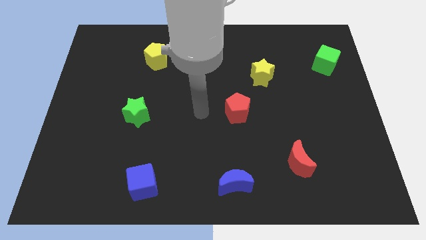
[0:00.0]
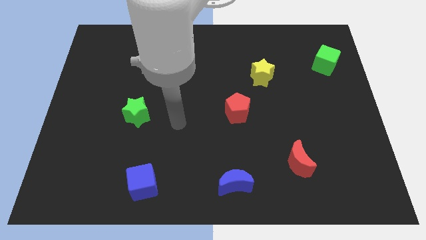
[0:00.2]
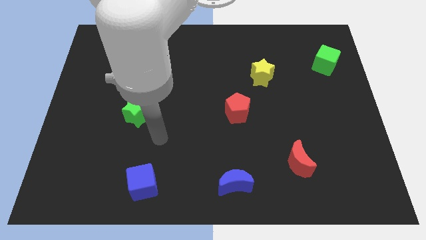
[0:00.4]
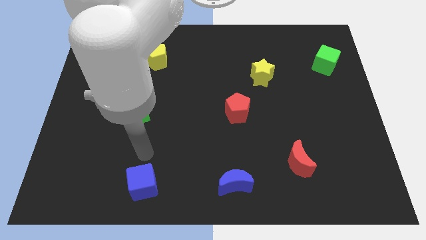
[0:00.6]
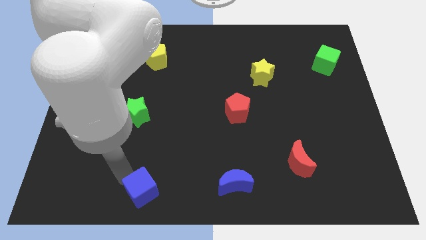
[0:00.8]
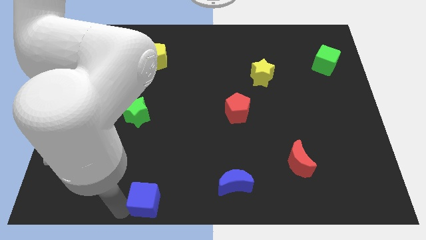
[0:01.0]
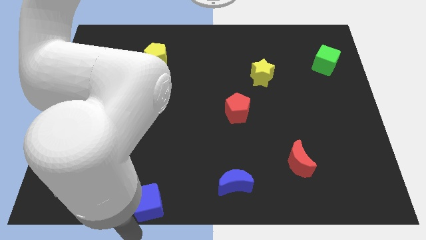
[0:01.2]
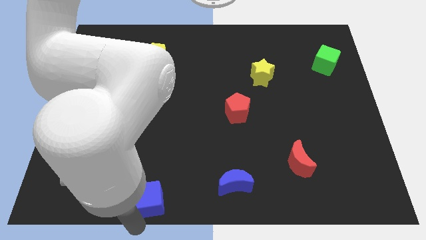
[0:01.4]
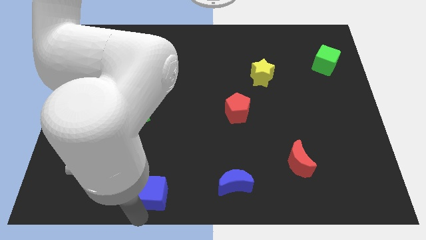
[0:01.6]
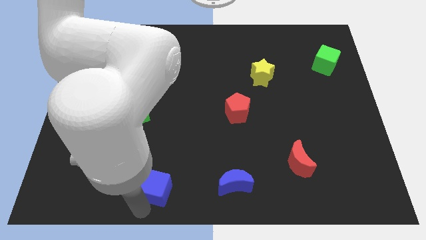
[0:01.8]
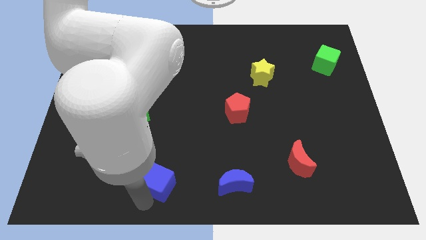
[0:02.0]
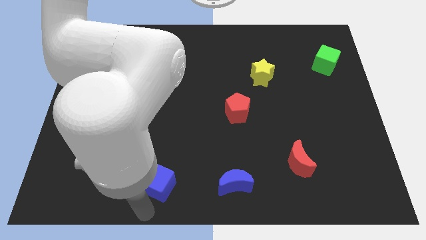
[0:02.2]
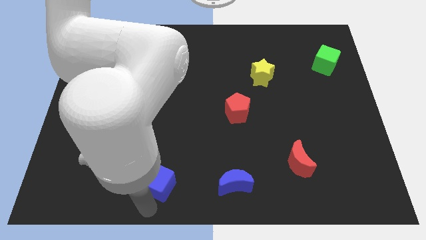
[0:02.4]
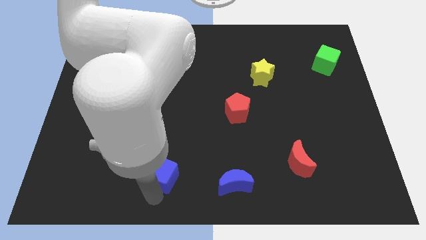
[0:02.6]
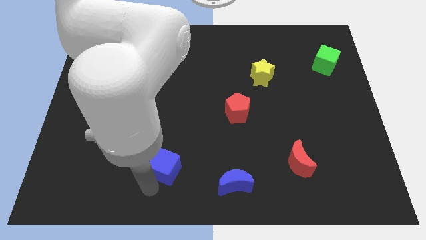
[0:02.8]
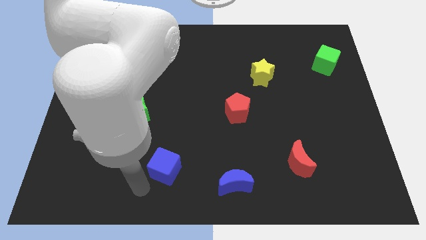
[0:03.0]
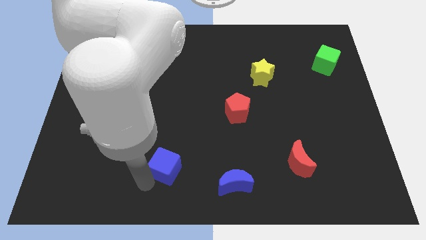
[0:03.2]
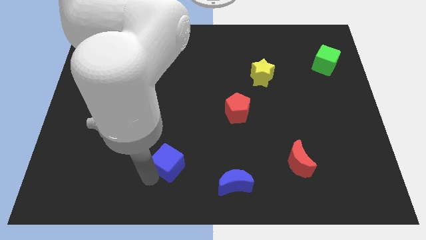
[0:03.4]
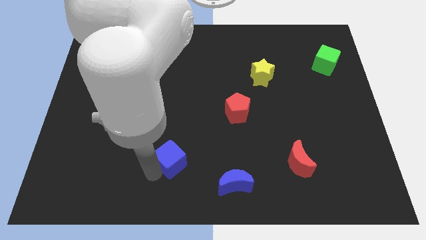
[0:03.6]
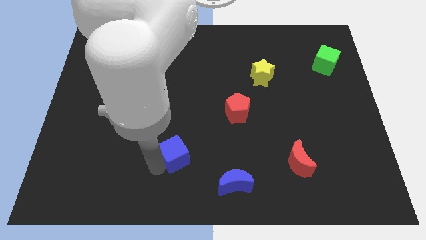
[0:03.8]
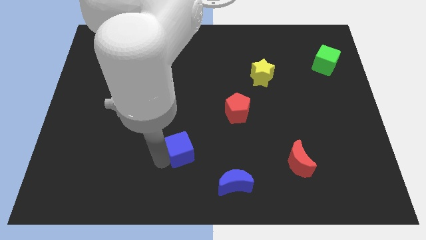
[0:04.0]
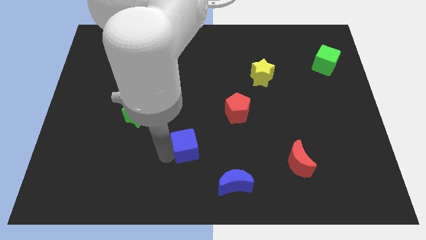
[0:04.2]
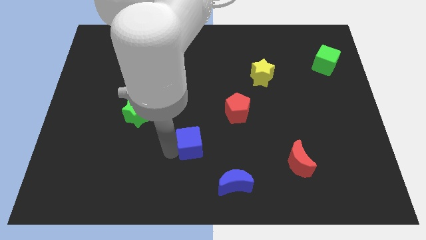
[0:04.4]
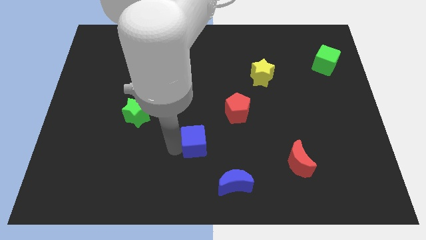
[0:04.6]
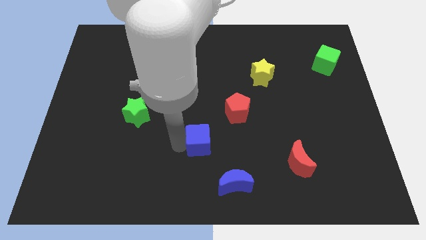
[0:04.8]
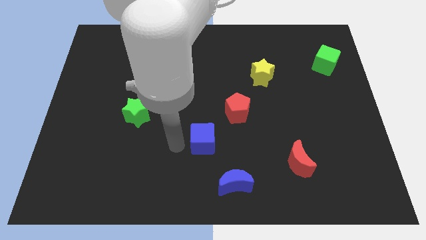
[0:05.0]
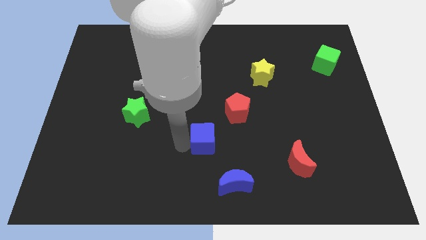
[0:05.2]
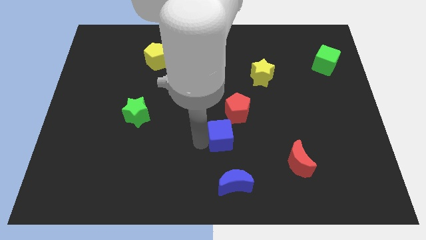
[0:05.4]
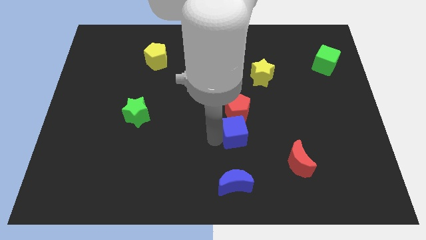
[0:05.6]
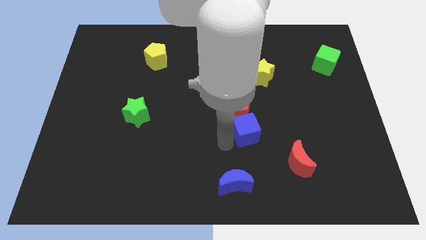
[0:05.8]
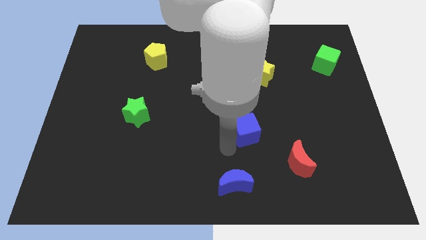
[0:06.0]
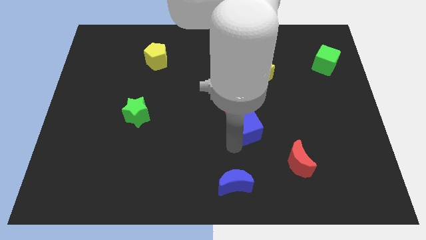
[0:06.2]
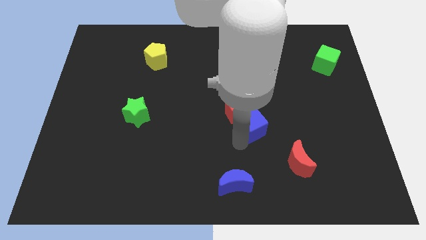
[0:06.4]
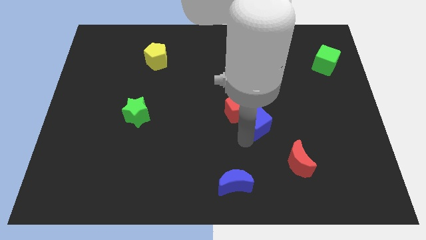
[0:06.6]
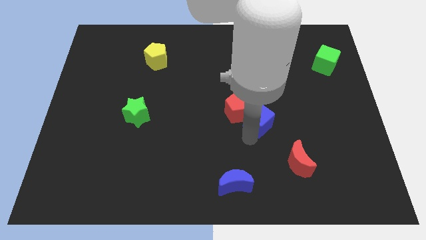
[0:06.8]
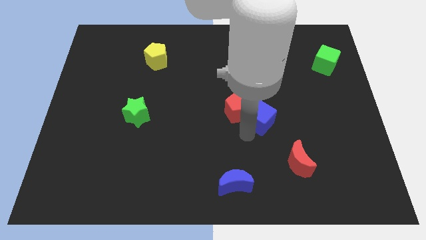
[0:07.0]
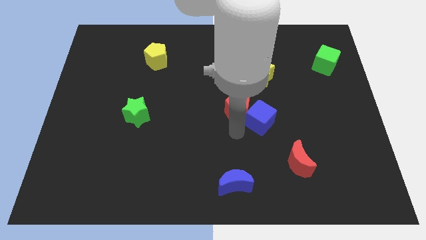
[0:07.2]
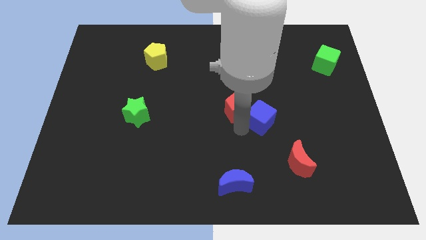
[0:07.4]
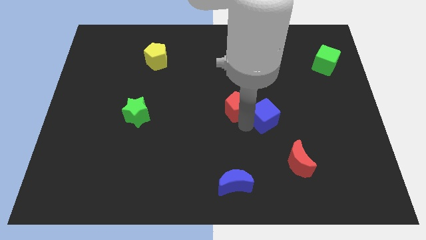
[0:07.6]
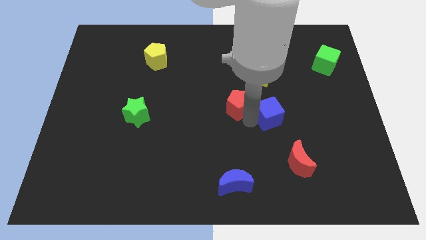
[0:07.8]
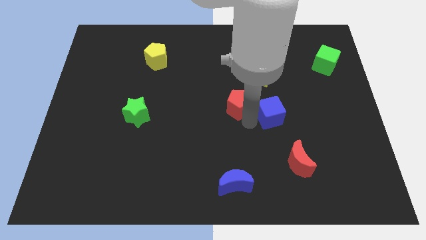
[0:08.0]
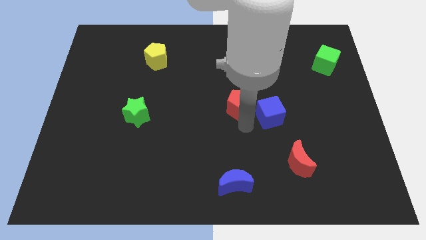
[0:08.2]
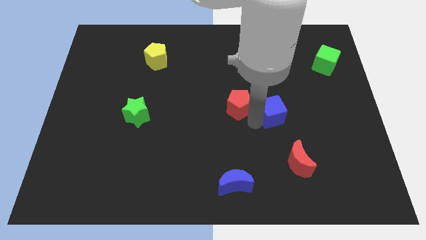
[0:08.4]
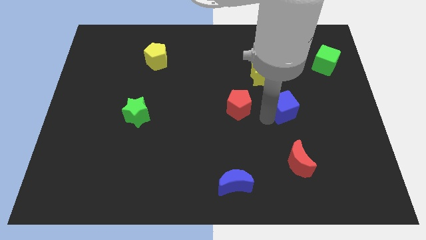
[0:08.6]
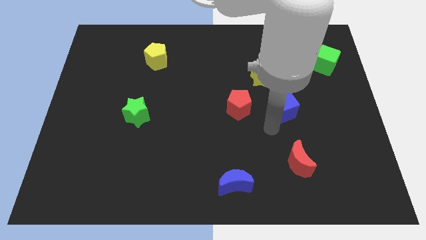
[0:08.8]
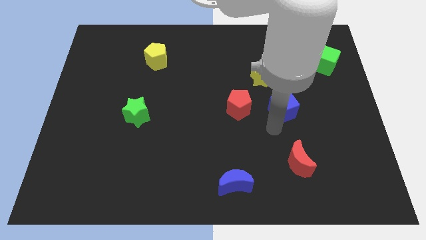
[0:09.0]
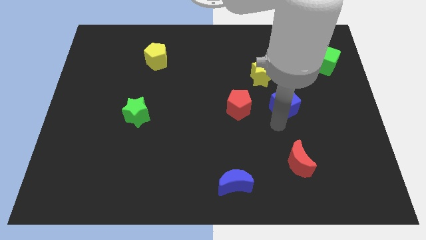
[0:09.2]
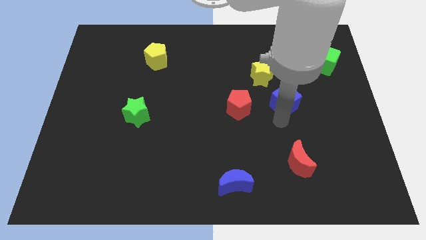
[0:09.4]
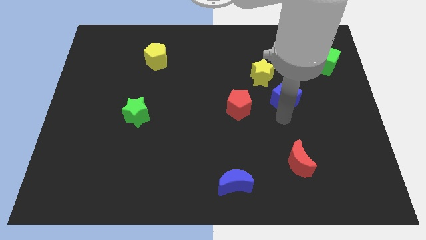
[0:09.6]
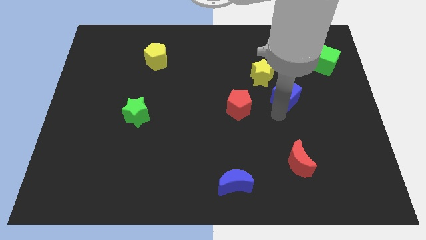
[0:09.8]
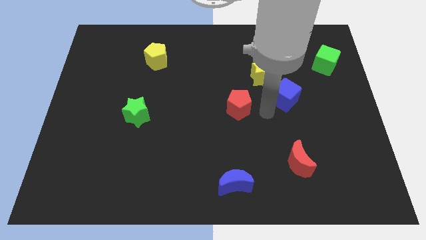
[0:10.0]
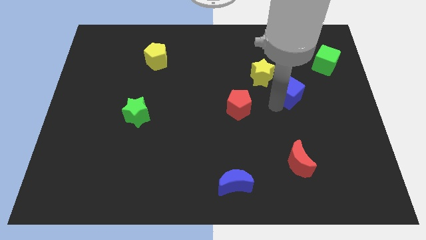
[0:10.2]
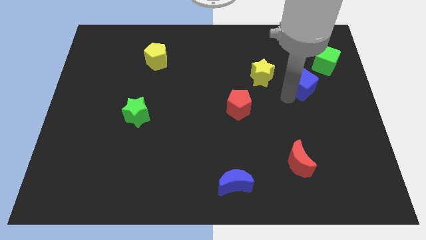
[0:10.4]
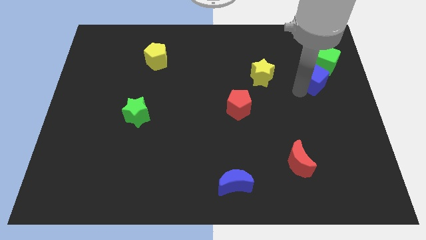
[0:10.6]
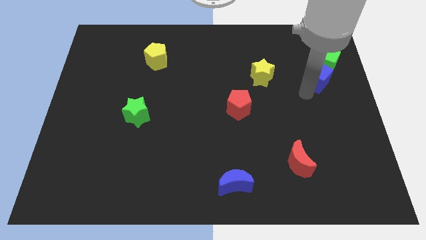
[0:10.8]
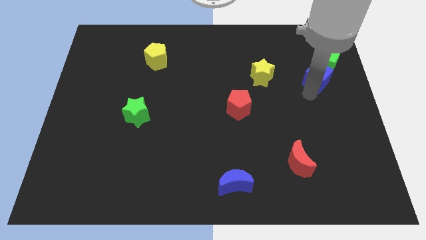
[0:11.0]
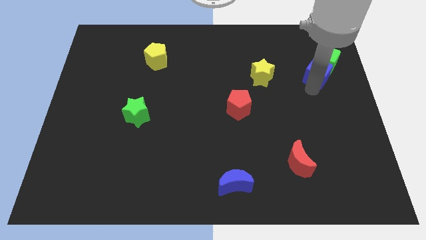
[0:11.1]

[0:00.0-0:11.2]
push the blue cube next to the green cube

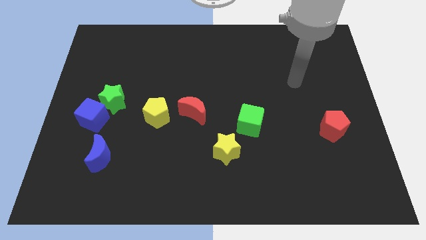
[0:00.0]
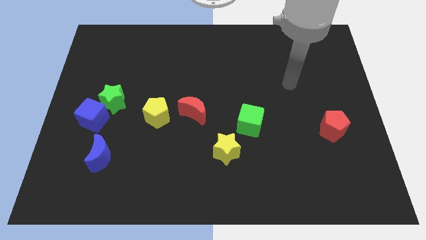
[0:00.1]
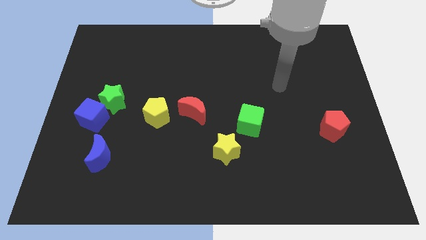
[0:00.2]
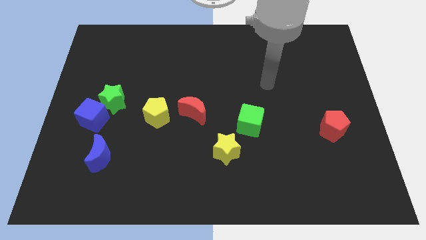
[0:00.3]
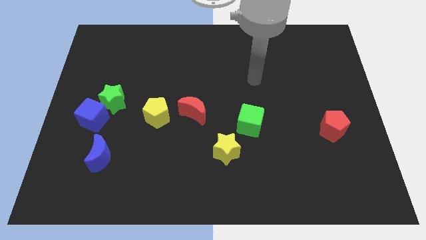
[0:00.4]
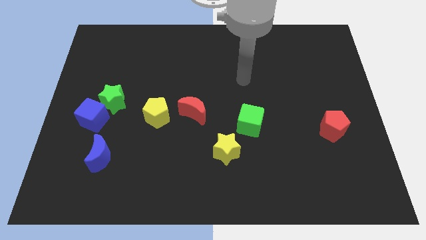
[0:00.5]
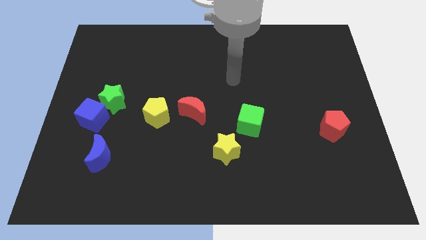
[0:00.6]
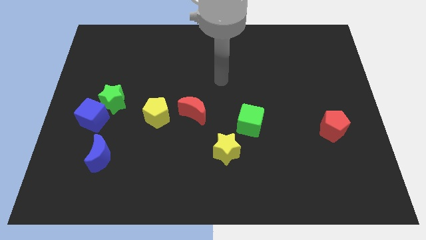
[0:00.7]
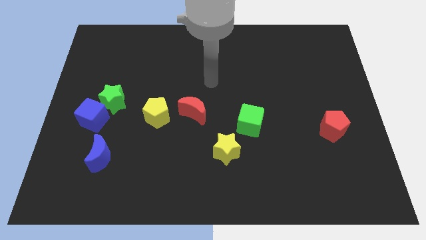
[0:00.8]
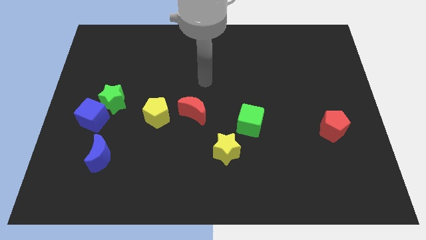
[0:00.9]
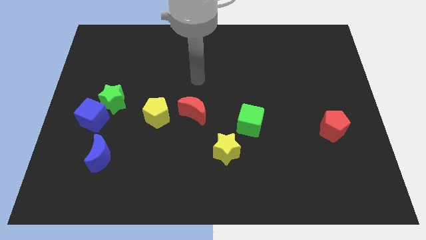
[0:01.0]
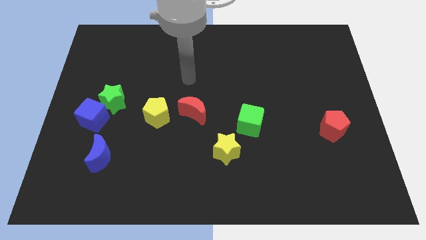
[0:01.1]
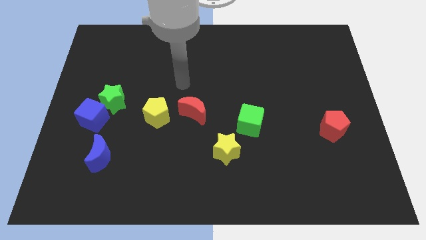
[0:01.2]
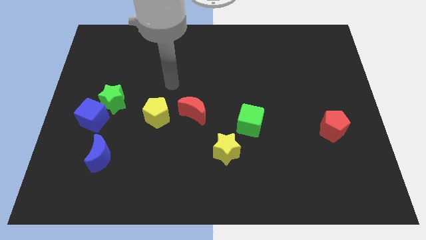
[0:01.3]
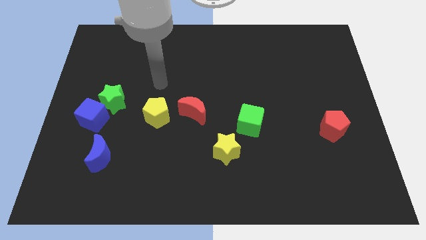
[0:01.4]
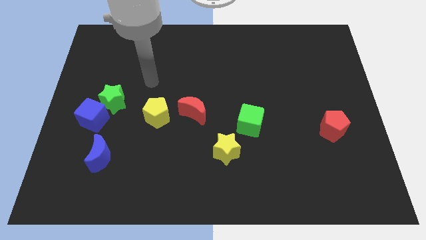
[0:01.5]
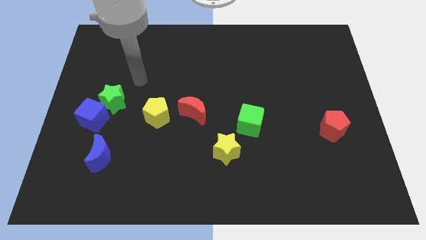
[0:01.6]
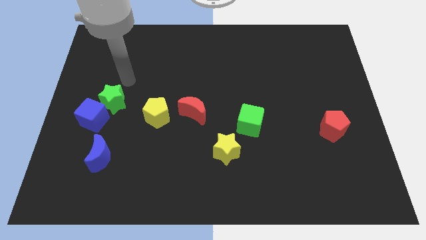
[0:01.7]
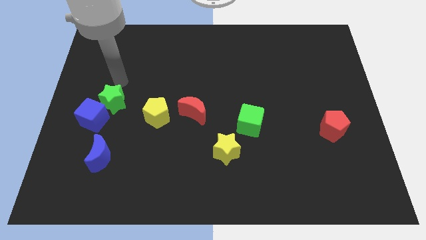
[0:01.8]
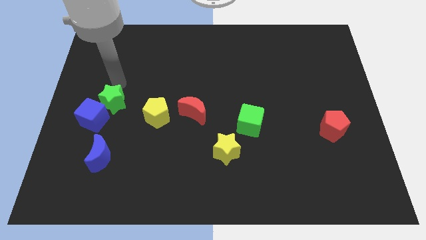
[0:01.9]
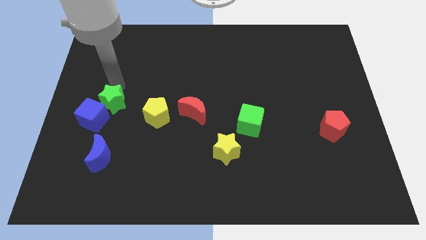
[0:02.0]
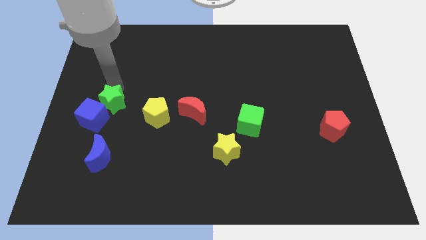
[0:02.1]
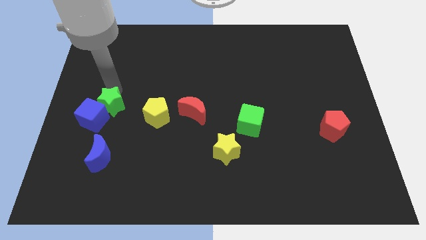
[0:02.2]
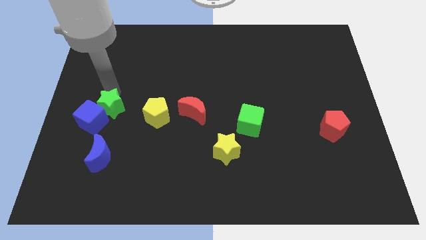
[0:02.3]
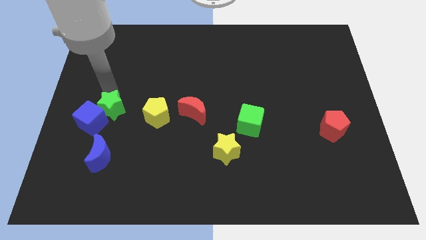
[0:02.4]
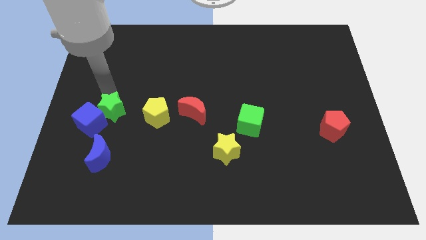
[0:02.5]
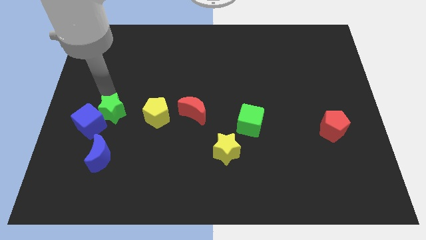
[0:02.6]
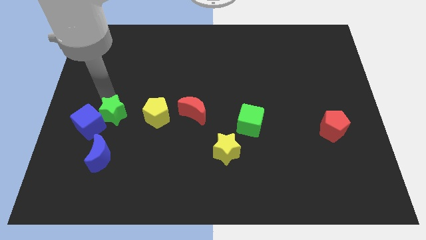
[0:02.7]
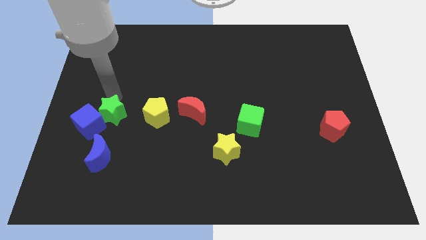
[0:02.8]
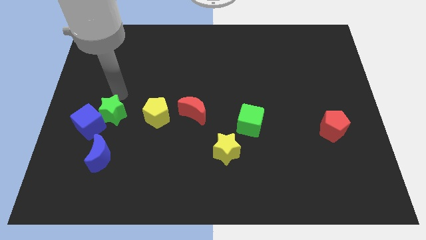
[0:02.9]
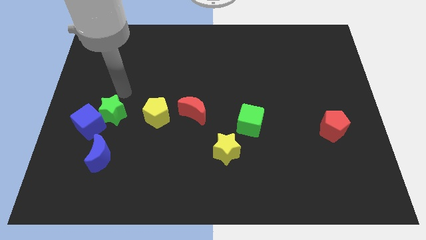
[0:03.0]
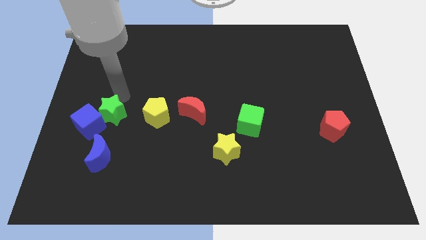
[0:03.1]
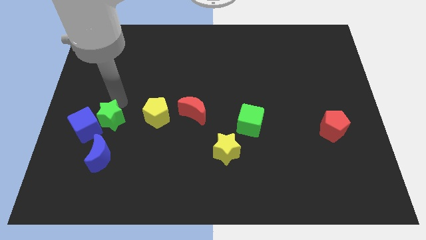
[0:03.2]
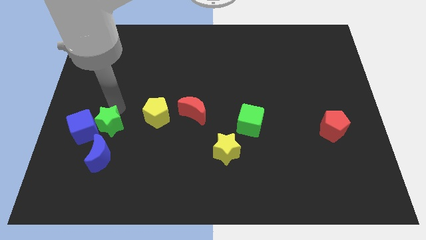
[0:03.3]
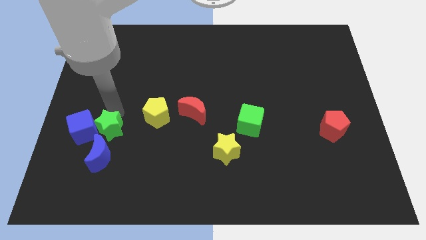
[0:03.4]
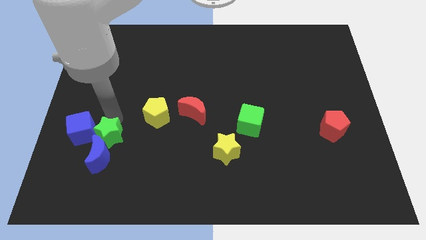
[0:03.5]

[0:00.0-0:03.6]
put the green star towards the blue moon
